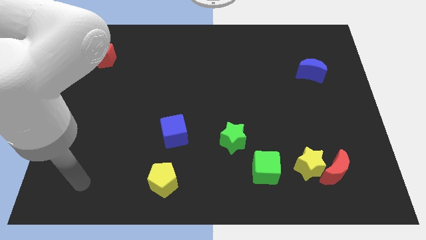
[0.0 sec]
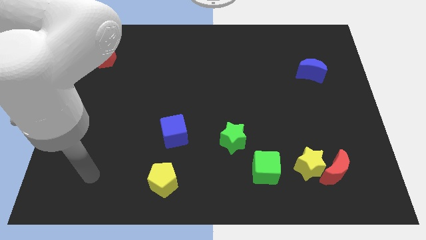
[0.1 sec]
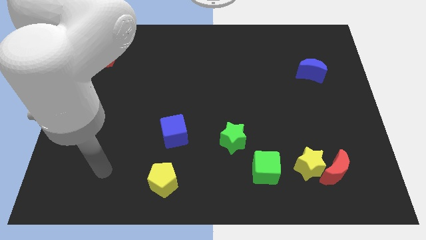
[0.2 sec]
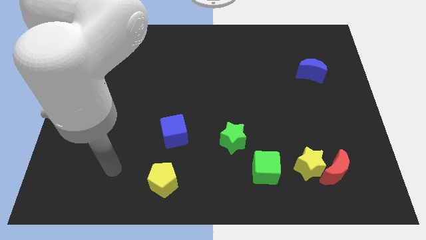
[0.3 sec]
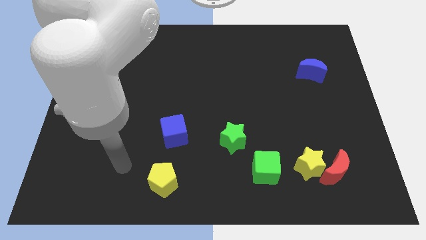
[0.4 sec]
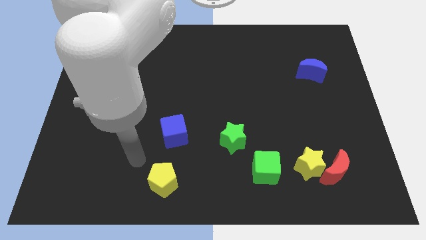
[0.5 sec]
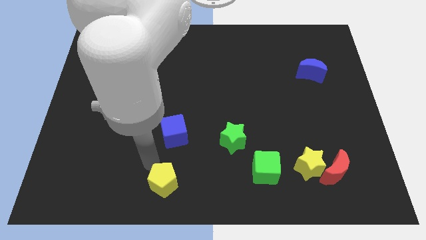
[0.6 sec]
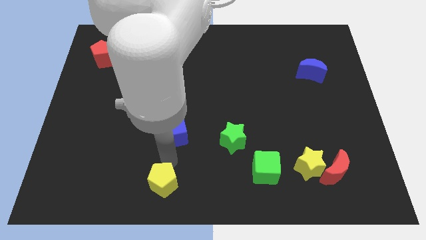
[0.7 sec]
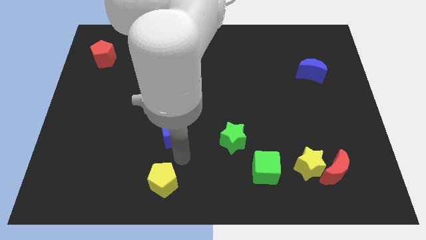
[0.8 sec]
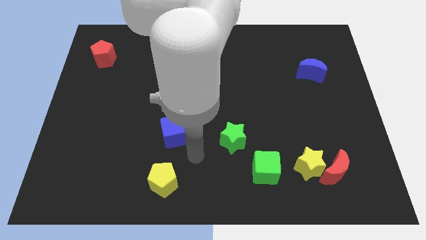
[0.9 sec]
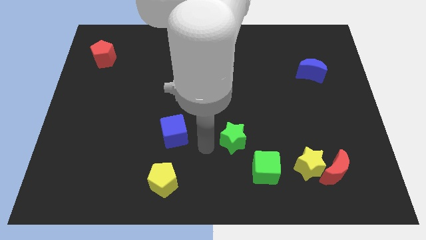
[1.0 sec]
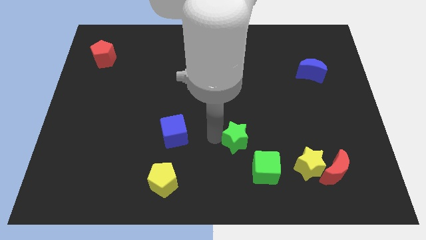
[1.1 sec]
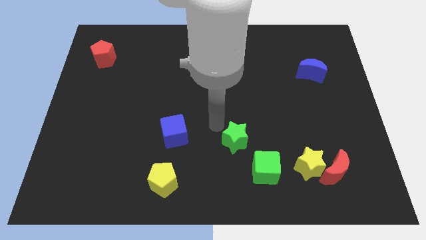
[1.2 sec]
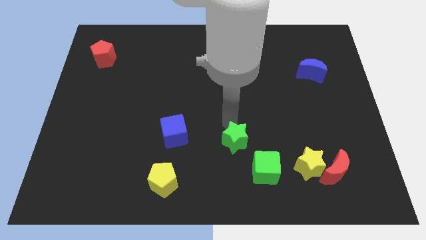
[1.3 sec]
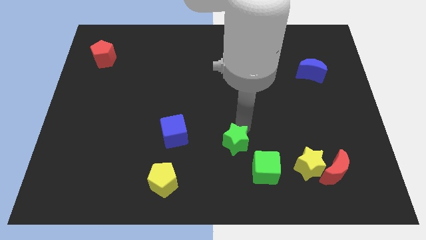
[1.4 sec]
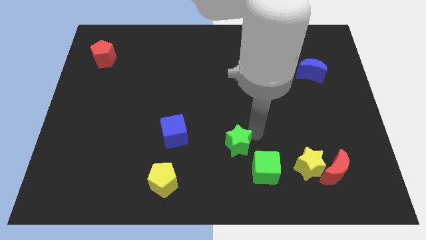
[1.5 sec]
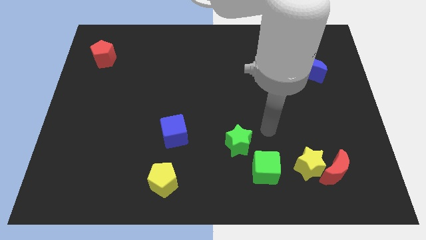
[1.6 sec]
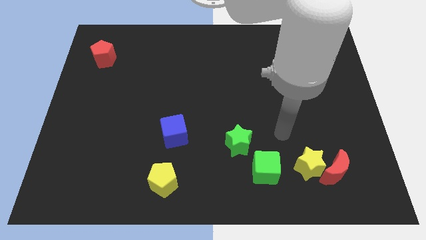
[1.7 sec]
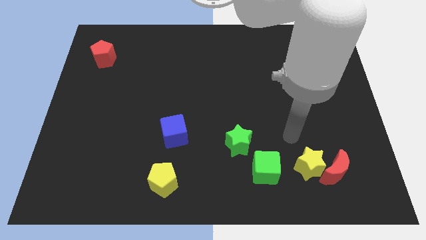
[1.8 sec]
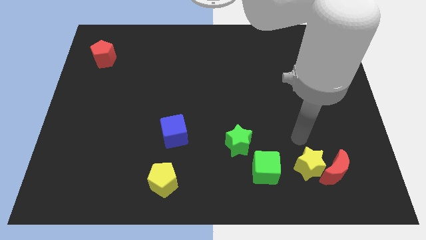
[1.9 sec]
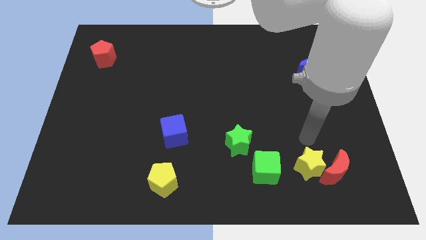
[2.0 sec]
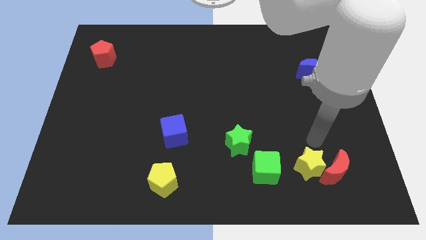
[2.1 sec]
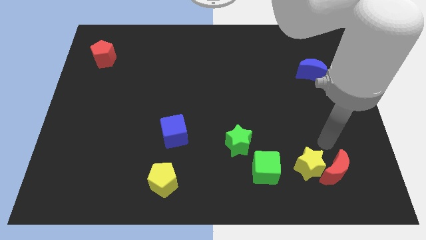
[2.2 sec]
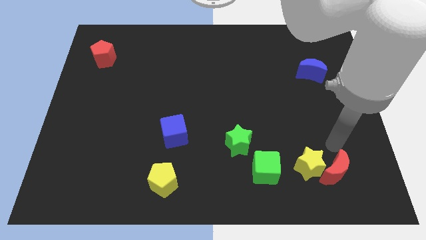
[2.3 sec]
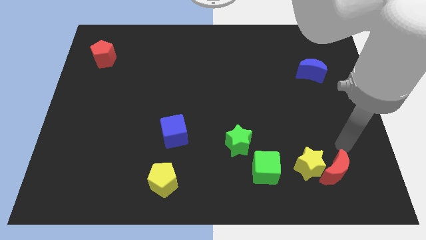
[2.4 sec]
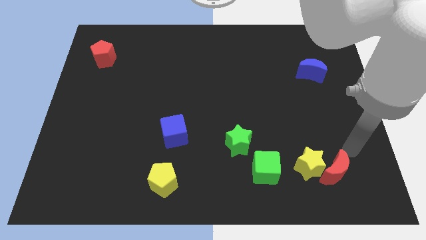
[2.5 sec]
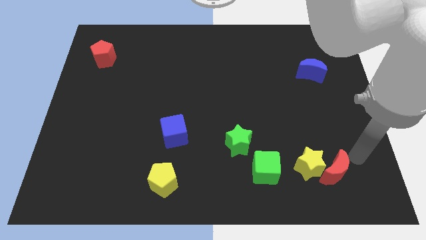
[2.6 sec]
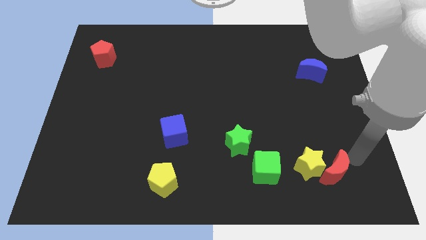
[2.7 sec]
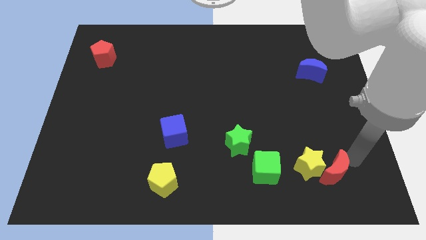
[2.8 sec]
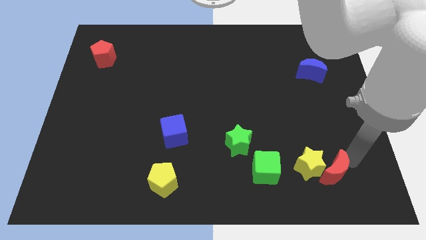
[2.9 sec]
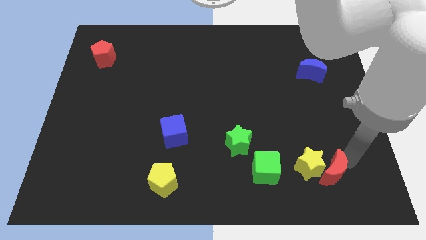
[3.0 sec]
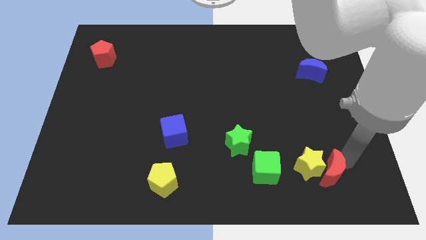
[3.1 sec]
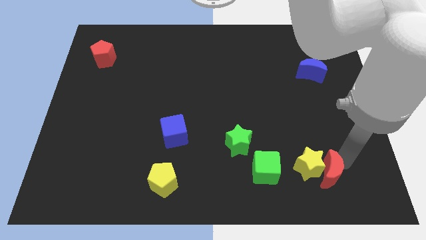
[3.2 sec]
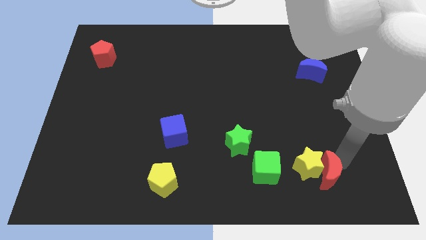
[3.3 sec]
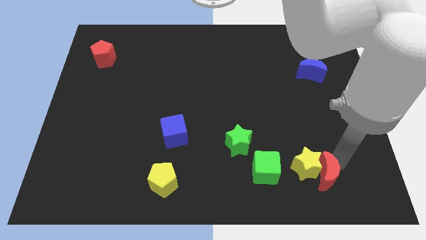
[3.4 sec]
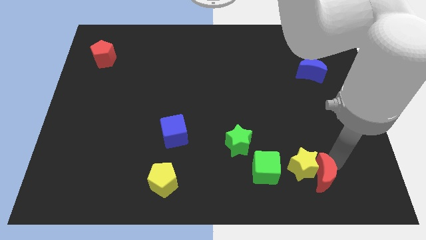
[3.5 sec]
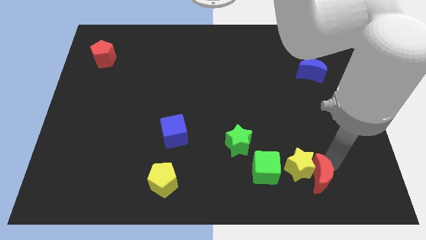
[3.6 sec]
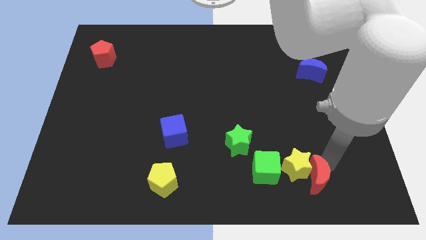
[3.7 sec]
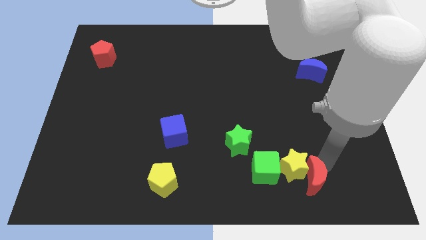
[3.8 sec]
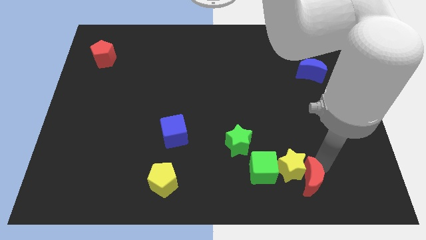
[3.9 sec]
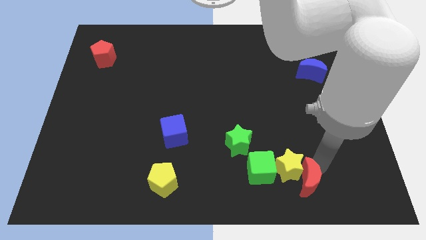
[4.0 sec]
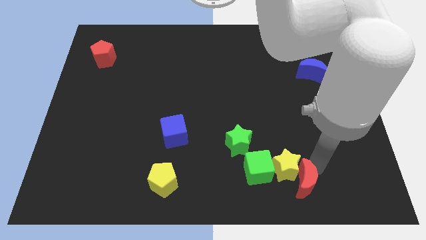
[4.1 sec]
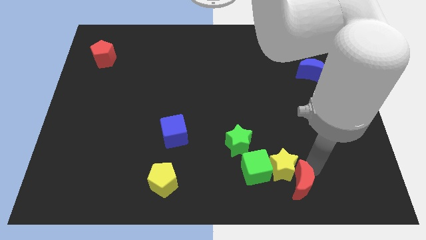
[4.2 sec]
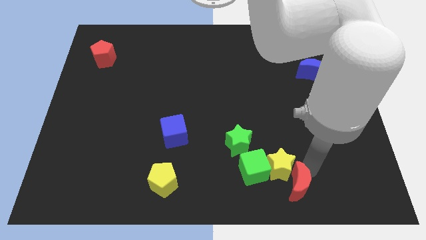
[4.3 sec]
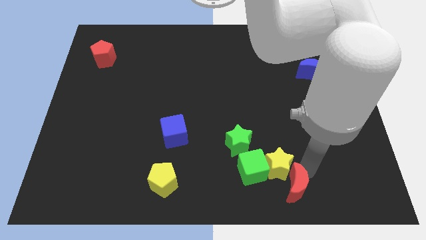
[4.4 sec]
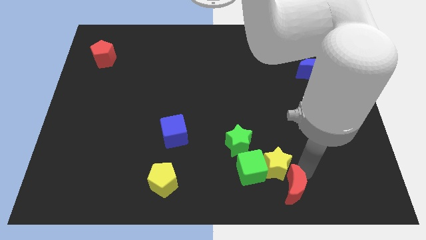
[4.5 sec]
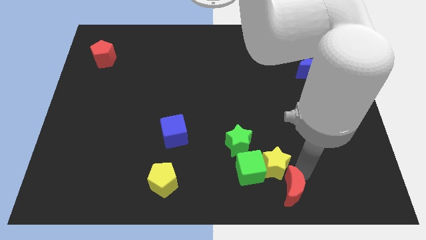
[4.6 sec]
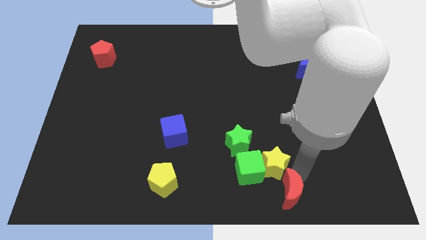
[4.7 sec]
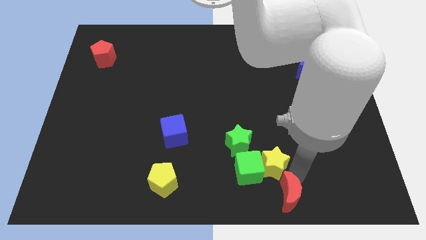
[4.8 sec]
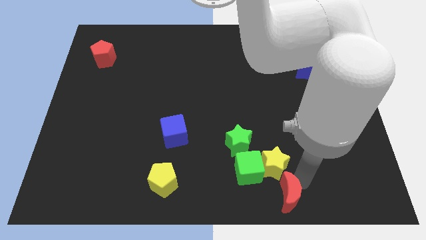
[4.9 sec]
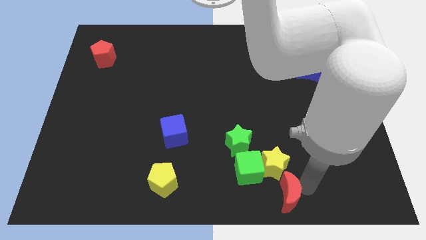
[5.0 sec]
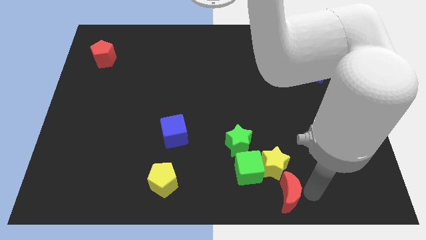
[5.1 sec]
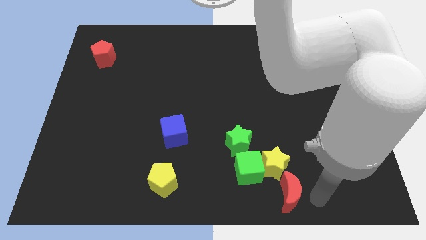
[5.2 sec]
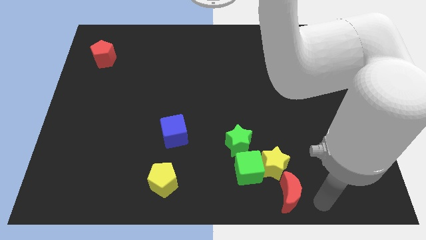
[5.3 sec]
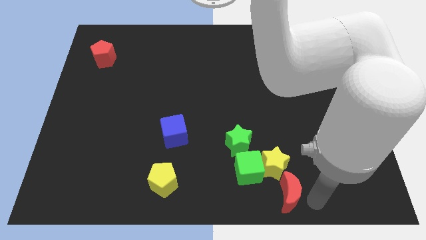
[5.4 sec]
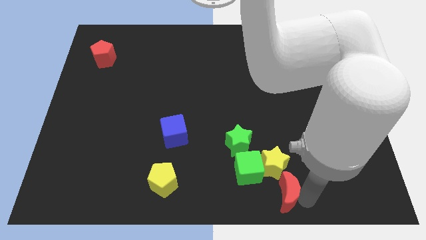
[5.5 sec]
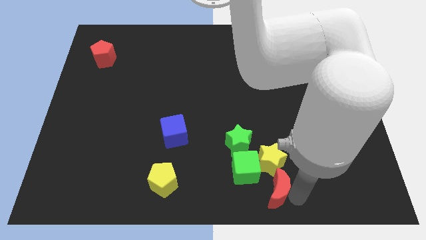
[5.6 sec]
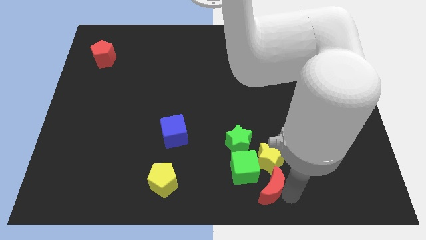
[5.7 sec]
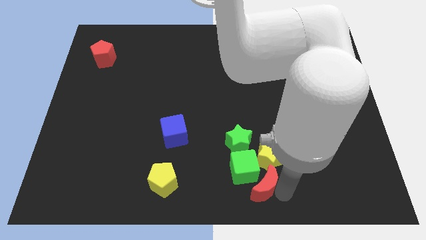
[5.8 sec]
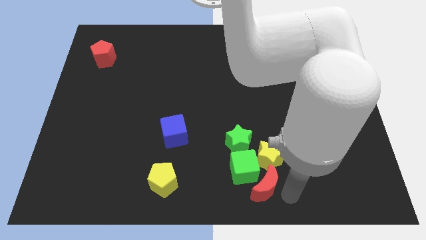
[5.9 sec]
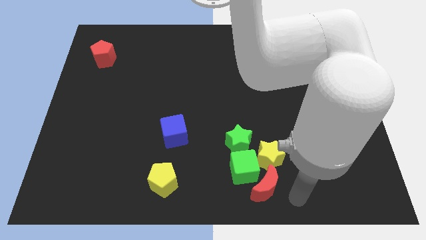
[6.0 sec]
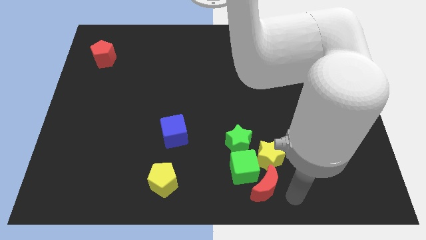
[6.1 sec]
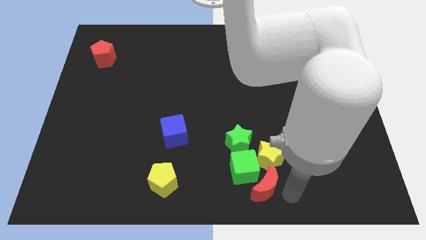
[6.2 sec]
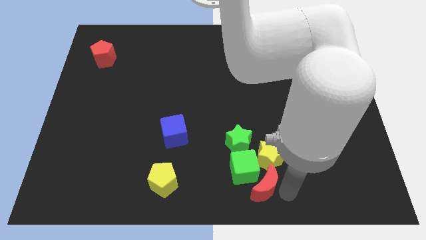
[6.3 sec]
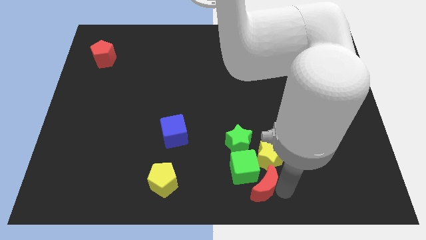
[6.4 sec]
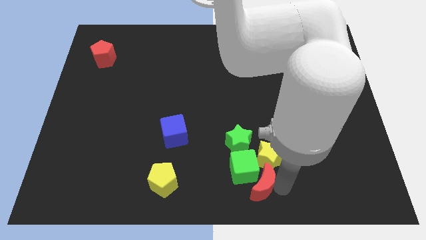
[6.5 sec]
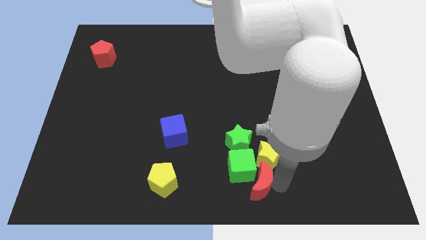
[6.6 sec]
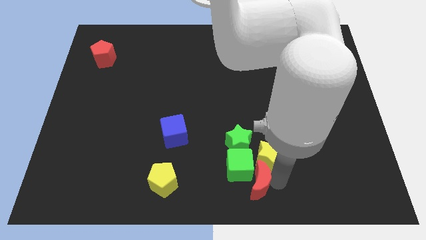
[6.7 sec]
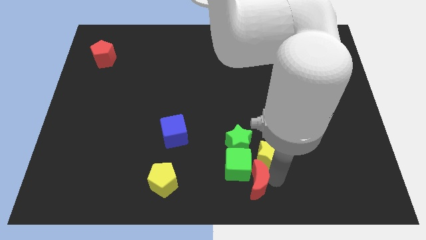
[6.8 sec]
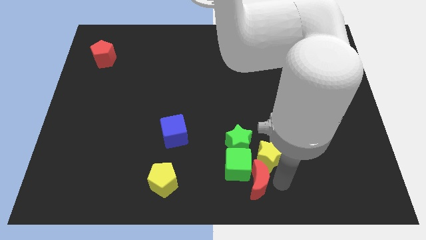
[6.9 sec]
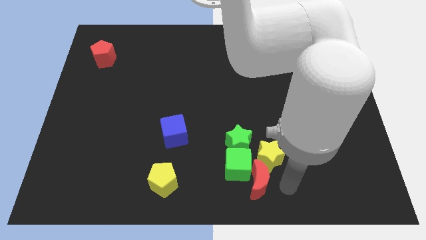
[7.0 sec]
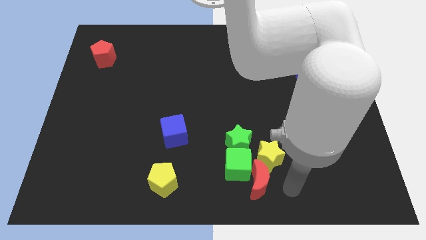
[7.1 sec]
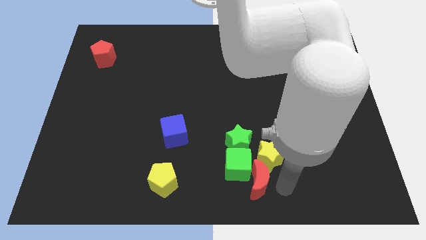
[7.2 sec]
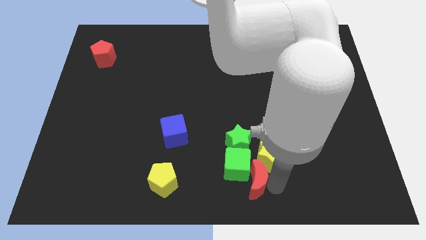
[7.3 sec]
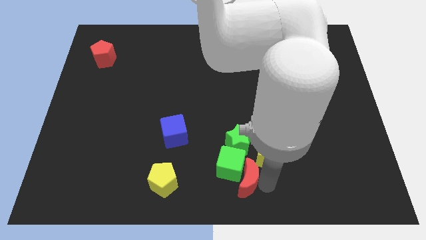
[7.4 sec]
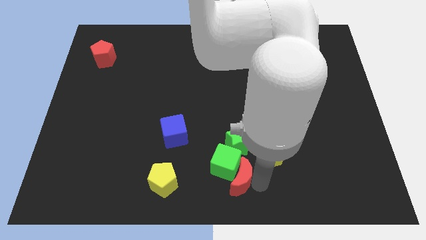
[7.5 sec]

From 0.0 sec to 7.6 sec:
move the red moon to the right side of the yellow pentagon
